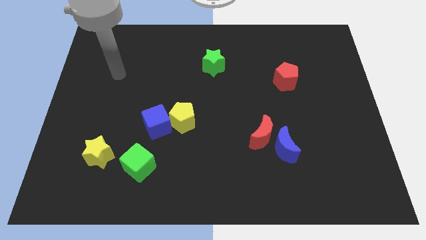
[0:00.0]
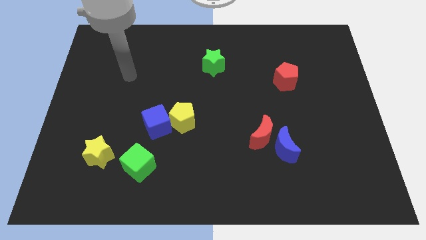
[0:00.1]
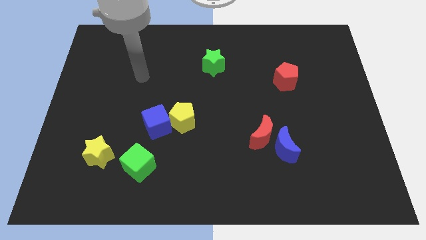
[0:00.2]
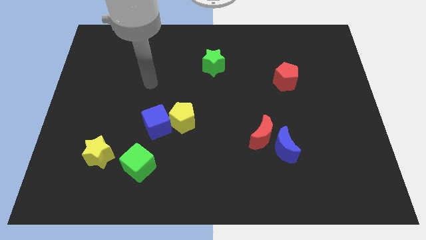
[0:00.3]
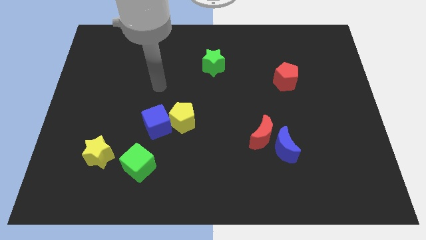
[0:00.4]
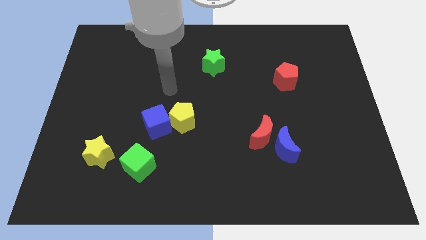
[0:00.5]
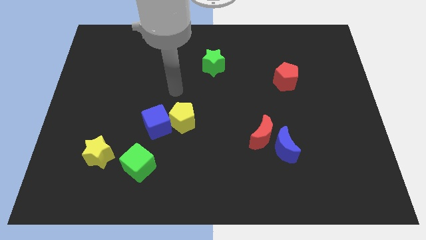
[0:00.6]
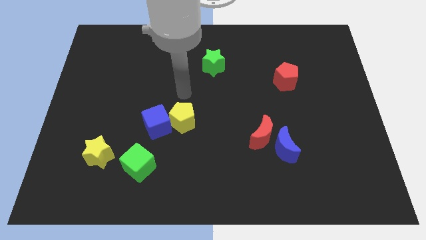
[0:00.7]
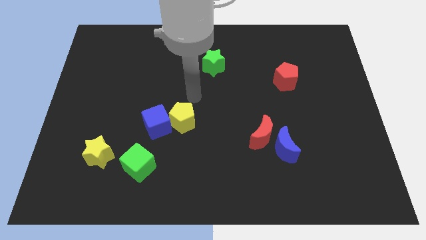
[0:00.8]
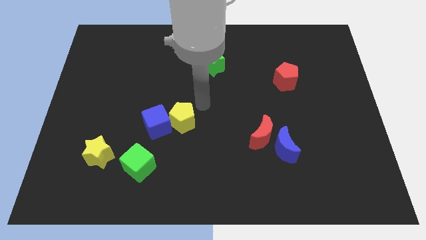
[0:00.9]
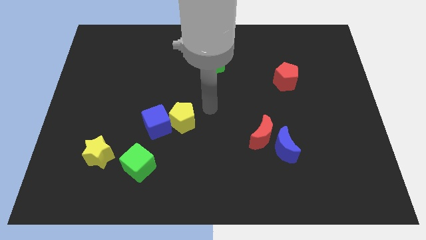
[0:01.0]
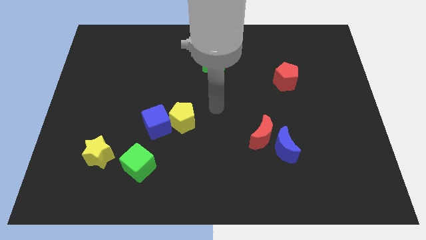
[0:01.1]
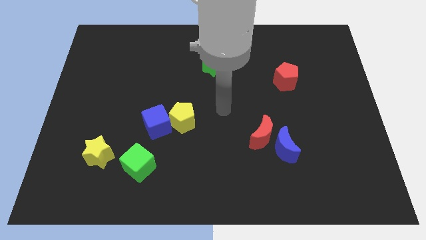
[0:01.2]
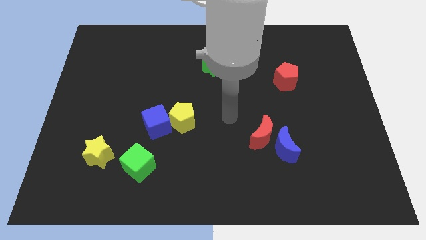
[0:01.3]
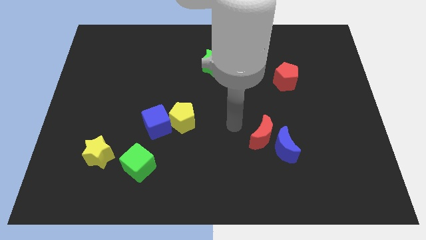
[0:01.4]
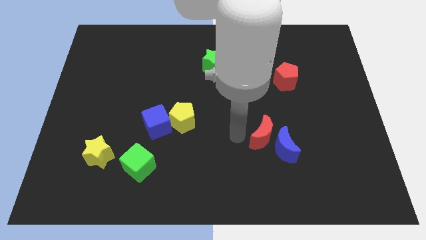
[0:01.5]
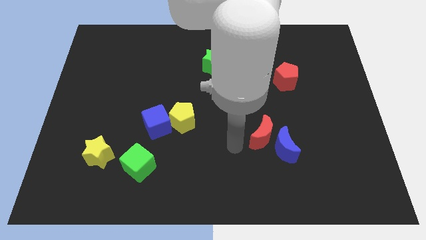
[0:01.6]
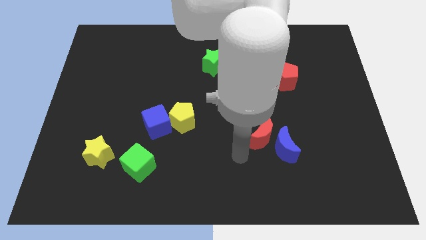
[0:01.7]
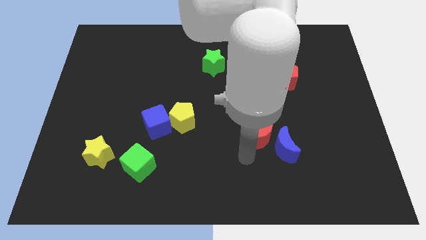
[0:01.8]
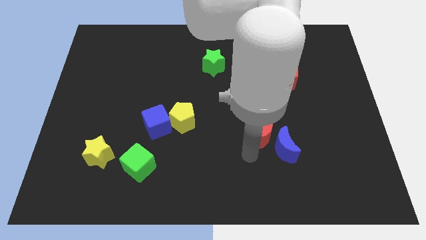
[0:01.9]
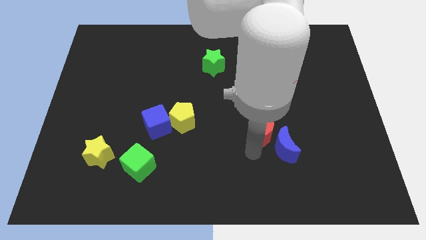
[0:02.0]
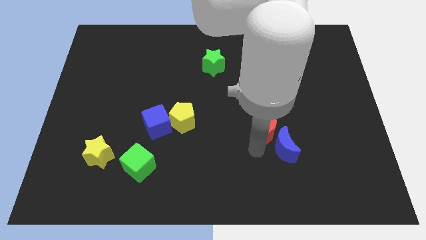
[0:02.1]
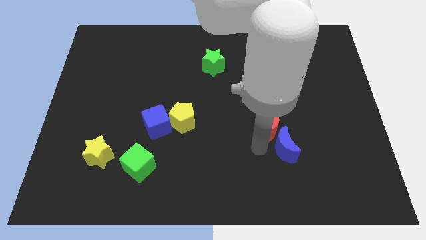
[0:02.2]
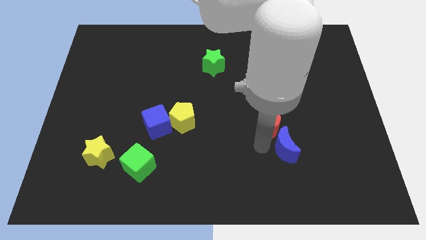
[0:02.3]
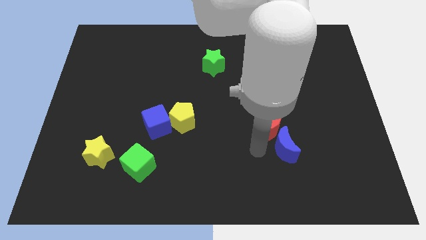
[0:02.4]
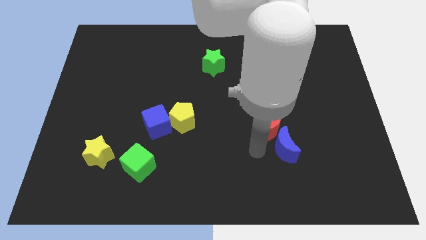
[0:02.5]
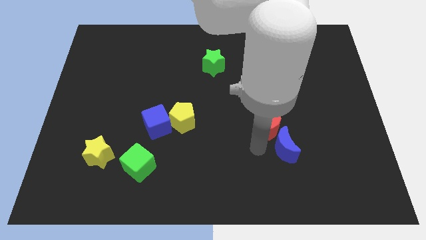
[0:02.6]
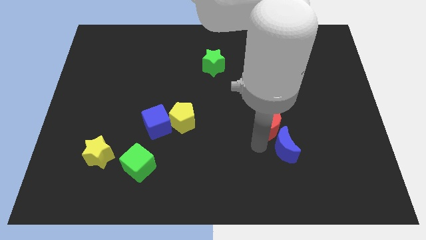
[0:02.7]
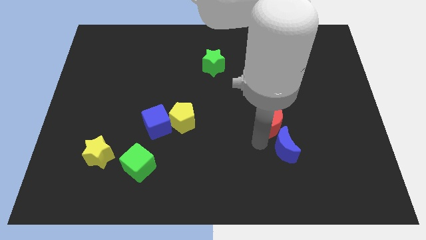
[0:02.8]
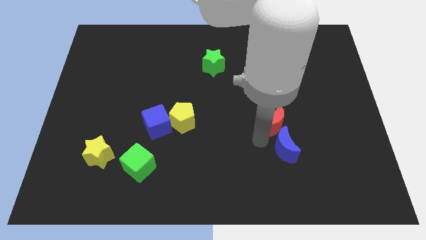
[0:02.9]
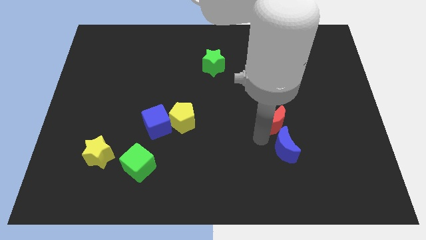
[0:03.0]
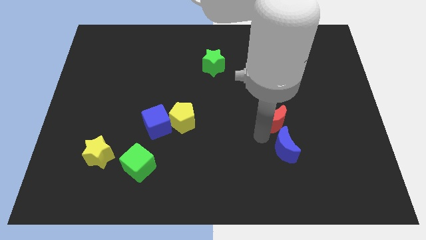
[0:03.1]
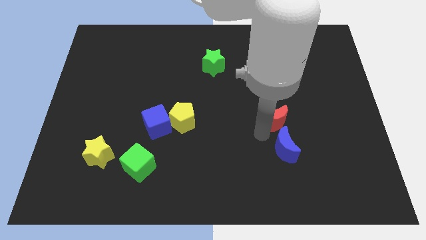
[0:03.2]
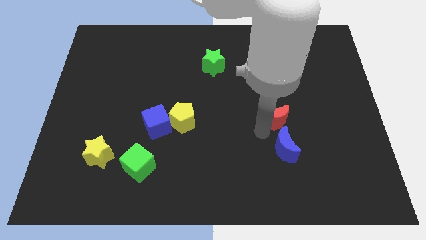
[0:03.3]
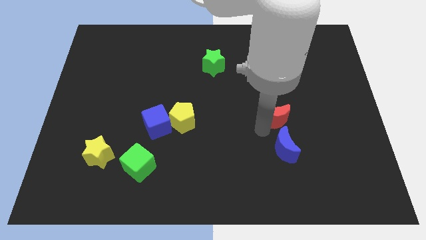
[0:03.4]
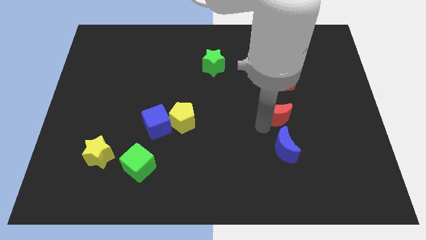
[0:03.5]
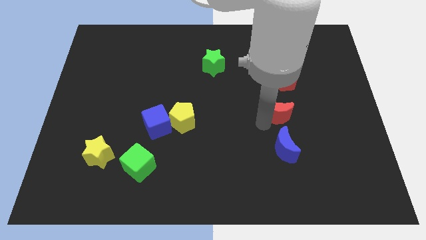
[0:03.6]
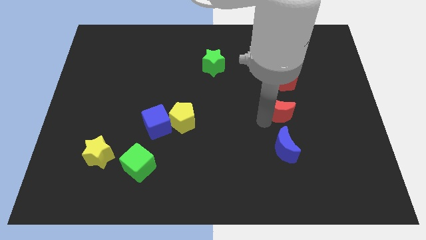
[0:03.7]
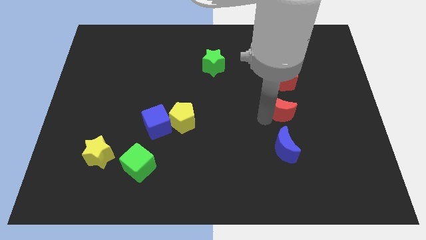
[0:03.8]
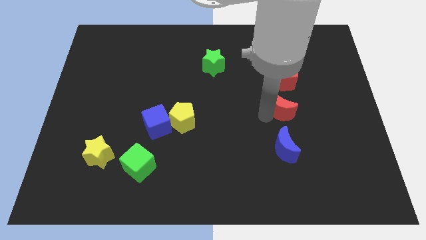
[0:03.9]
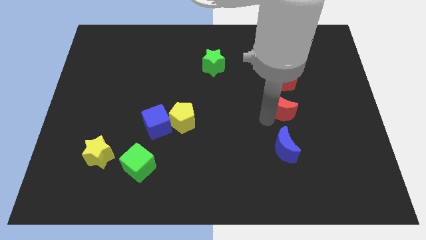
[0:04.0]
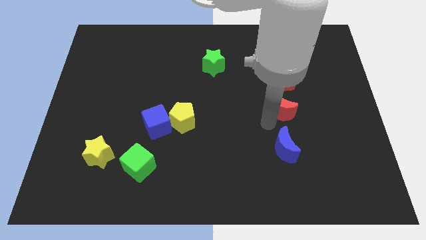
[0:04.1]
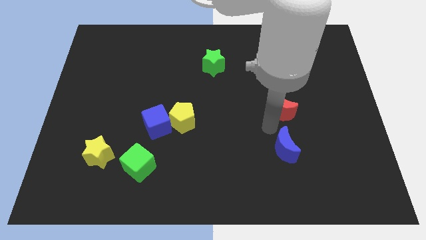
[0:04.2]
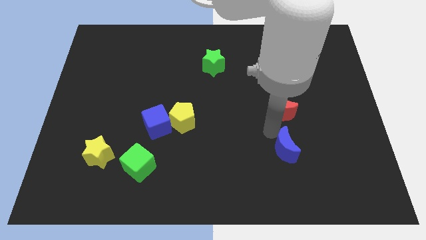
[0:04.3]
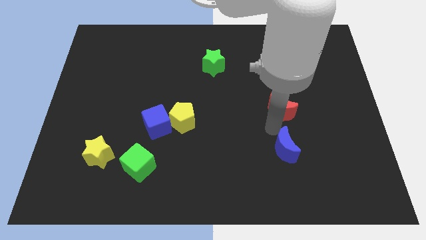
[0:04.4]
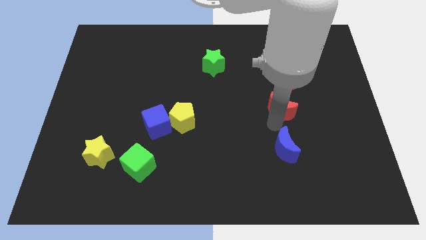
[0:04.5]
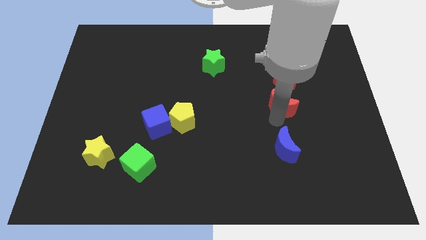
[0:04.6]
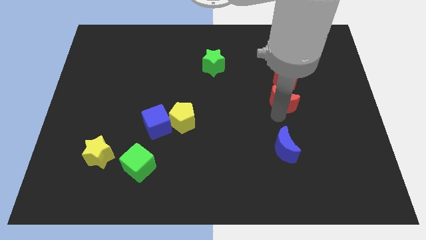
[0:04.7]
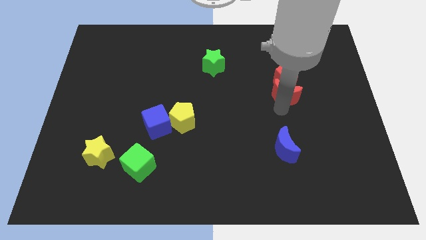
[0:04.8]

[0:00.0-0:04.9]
slide the red moon to the red pentagon

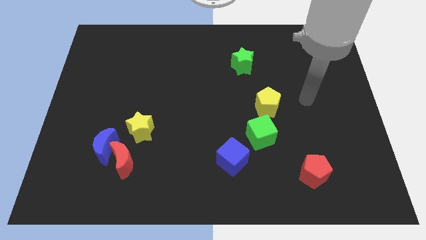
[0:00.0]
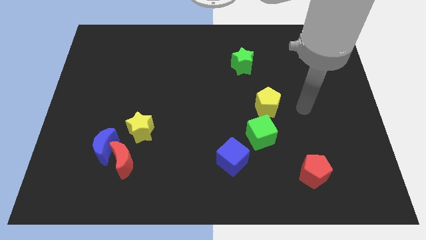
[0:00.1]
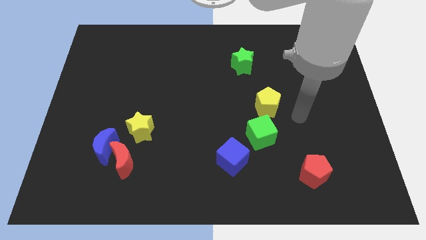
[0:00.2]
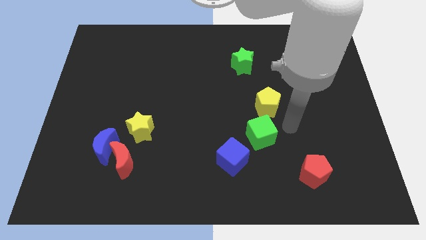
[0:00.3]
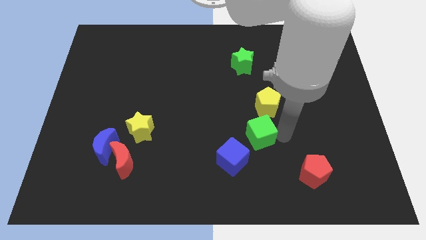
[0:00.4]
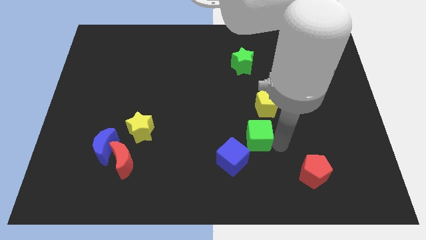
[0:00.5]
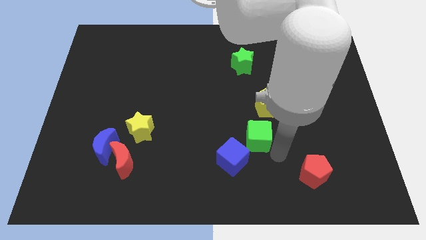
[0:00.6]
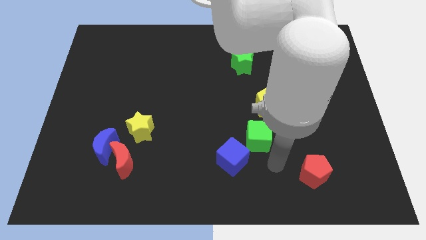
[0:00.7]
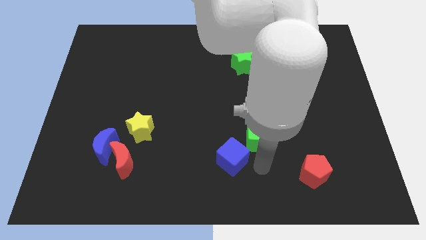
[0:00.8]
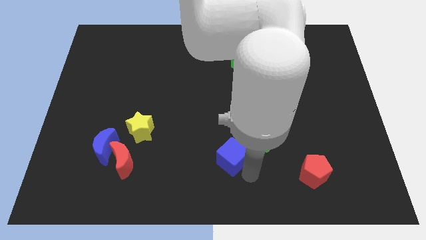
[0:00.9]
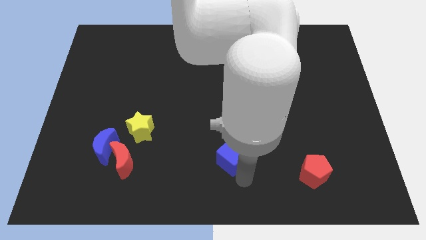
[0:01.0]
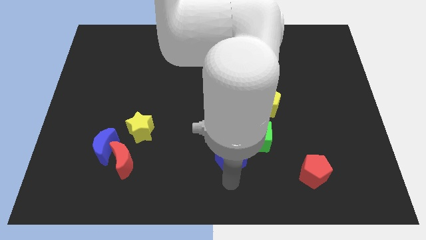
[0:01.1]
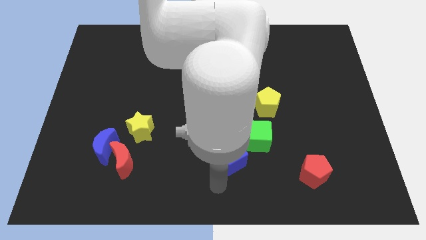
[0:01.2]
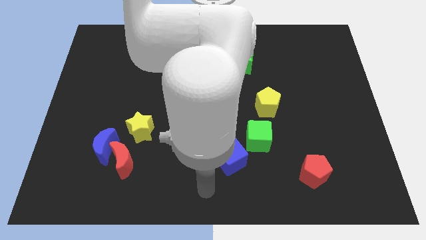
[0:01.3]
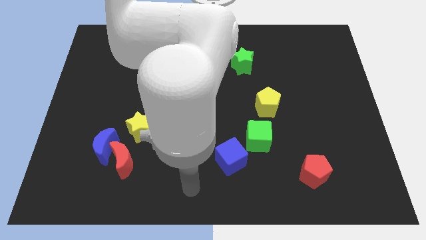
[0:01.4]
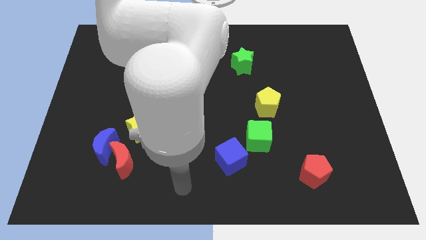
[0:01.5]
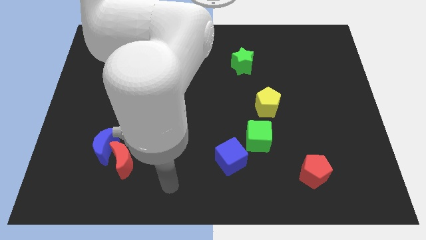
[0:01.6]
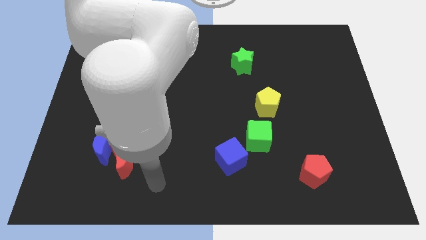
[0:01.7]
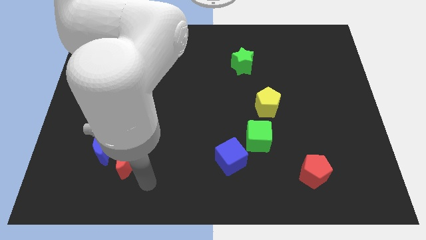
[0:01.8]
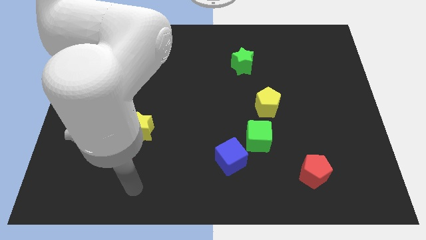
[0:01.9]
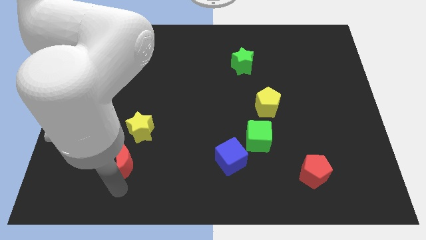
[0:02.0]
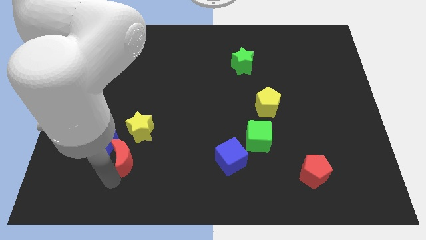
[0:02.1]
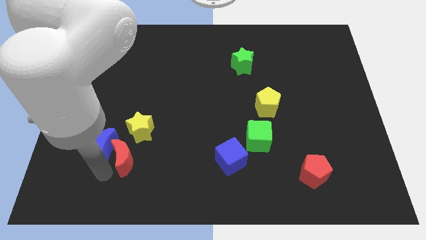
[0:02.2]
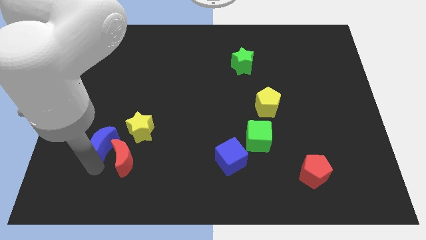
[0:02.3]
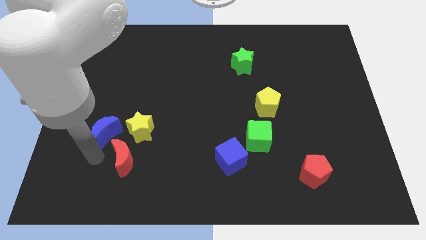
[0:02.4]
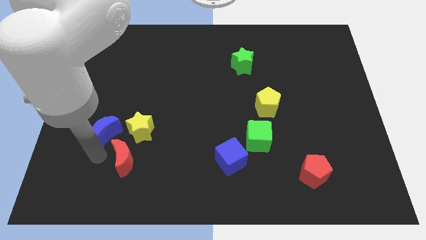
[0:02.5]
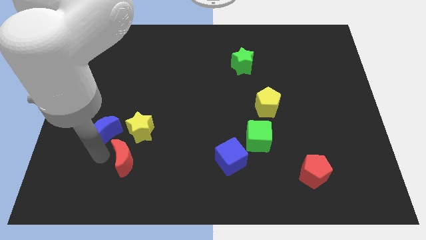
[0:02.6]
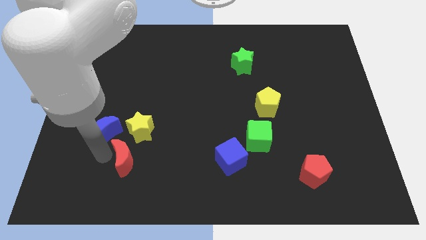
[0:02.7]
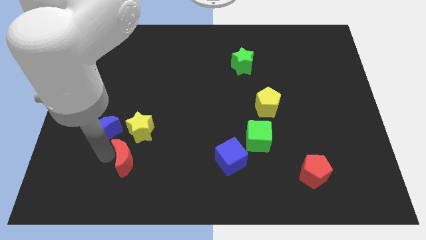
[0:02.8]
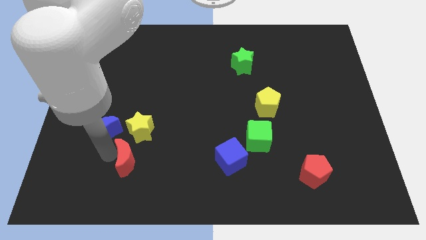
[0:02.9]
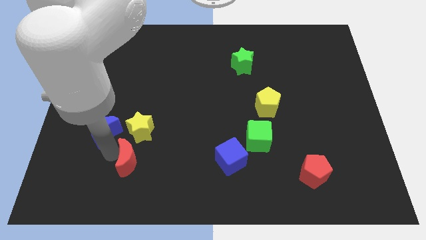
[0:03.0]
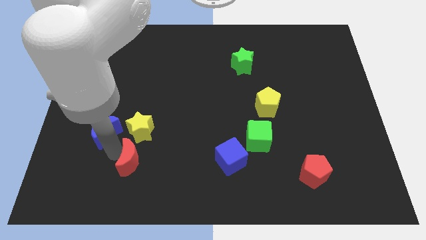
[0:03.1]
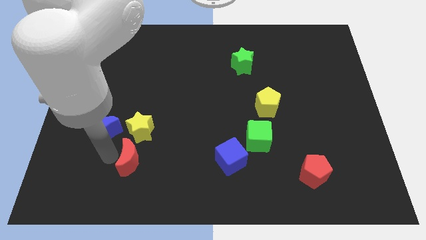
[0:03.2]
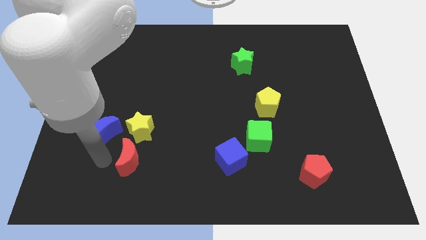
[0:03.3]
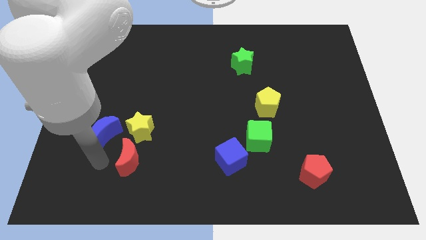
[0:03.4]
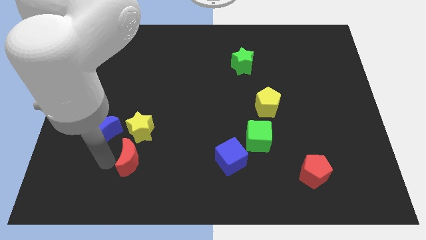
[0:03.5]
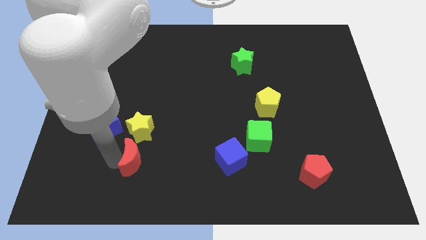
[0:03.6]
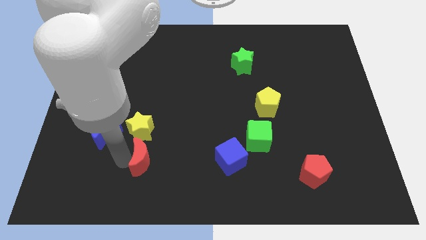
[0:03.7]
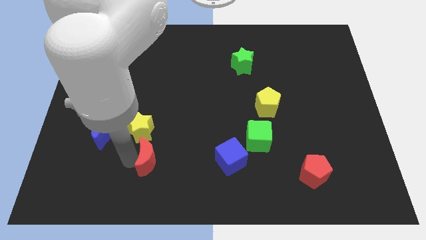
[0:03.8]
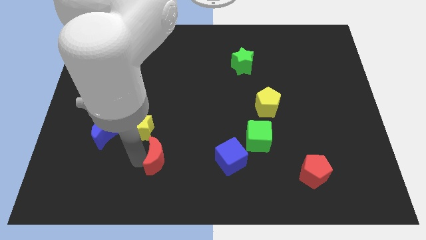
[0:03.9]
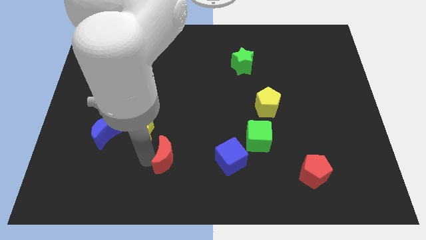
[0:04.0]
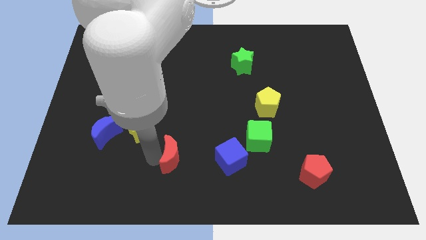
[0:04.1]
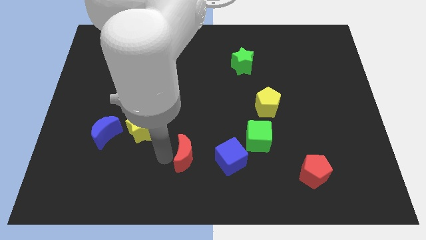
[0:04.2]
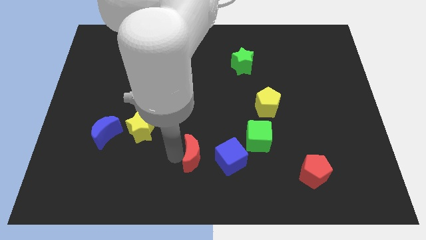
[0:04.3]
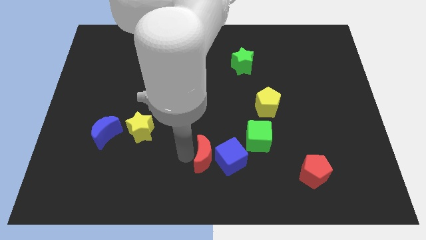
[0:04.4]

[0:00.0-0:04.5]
move the red moon next to the blue cube
